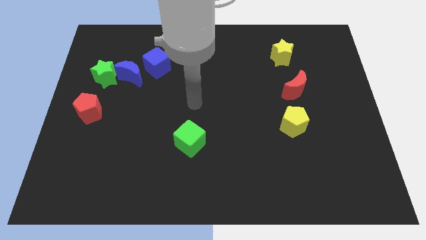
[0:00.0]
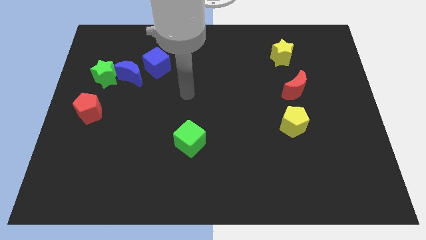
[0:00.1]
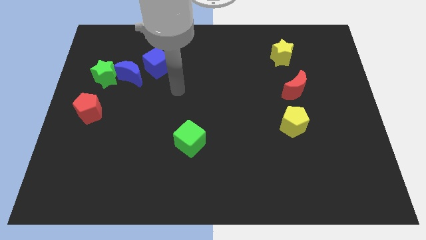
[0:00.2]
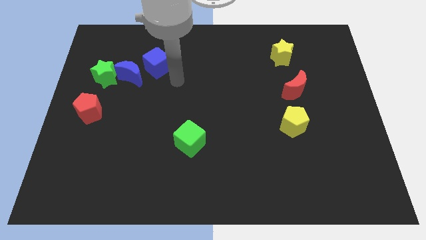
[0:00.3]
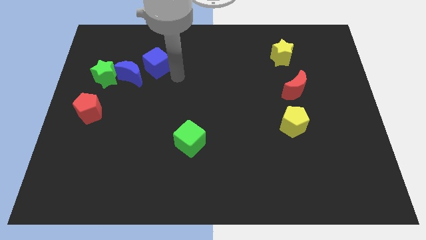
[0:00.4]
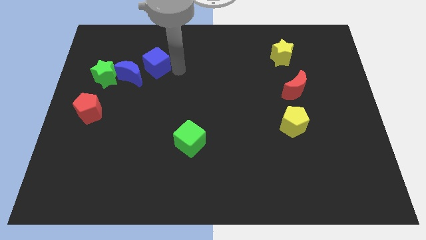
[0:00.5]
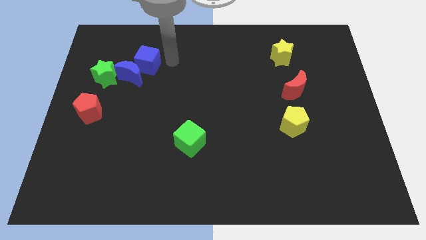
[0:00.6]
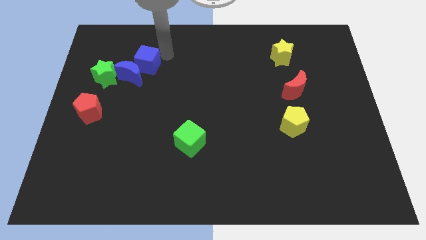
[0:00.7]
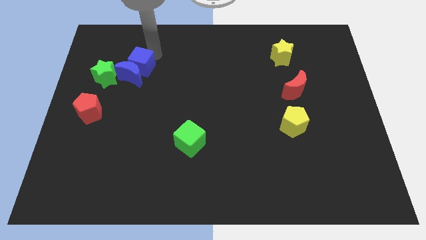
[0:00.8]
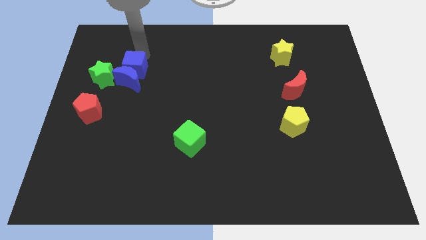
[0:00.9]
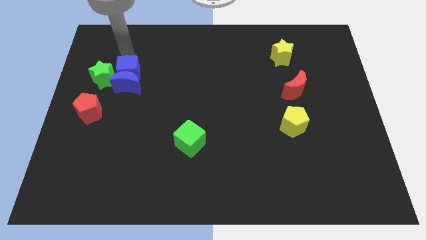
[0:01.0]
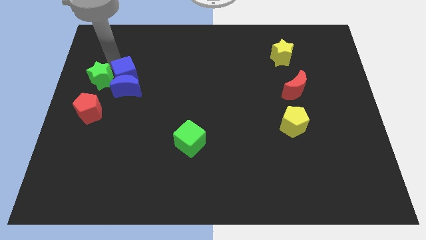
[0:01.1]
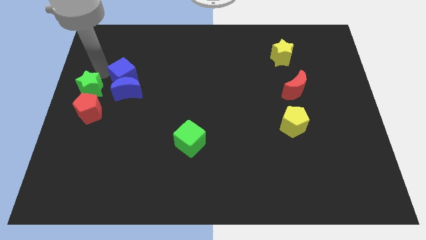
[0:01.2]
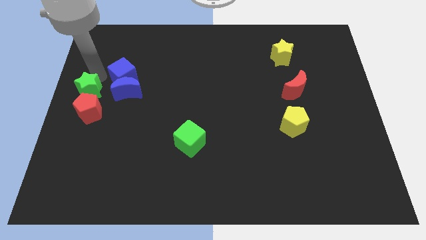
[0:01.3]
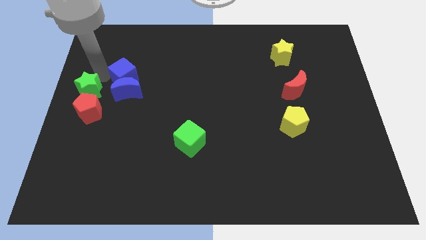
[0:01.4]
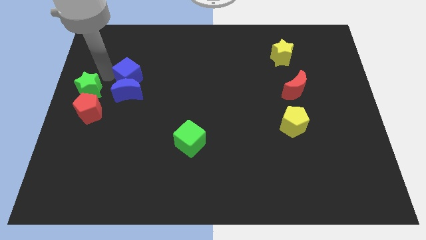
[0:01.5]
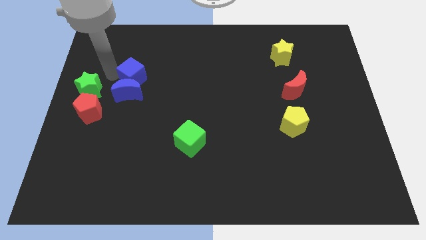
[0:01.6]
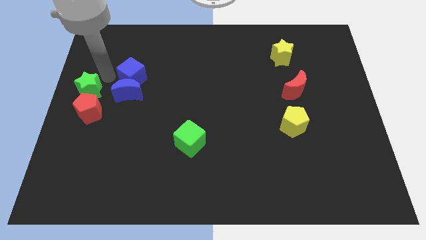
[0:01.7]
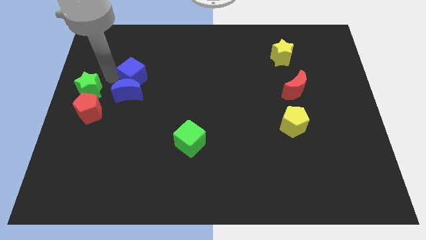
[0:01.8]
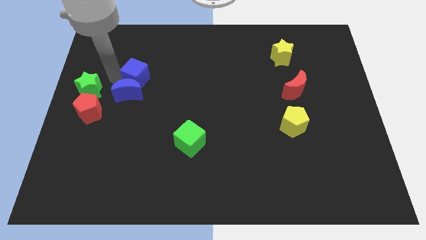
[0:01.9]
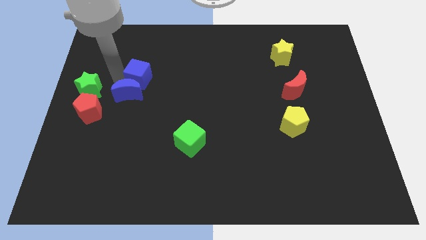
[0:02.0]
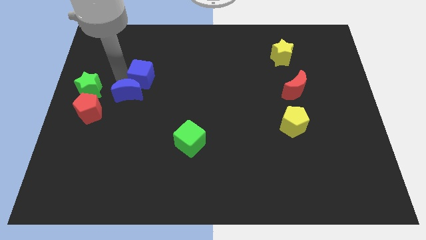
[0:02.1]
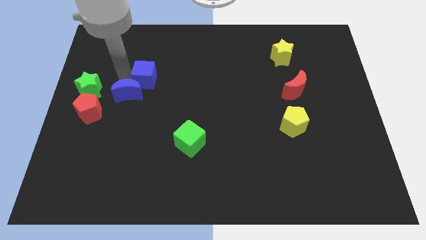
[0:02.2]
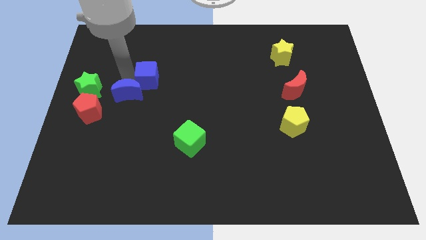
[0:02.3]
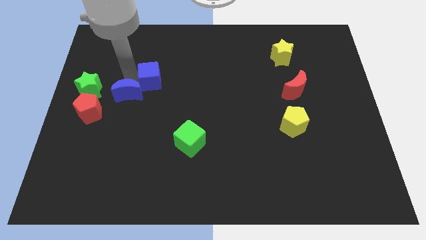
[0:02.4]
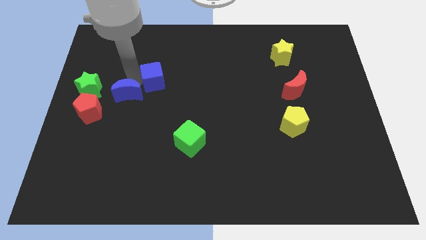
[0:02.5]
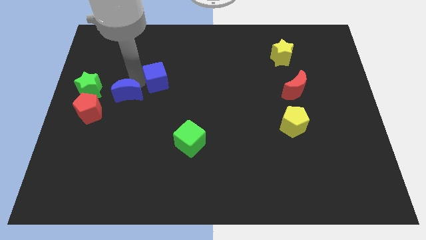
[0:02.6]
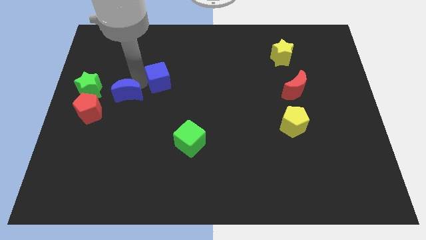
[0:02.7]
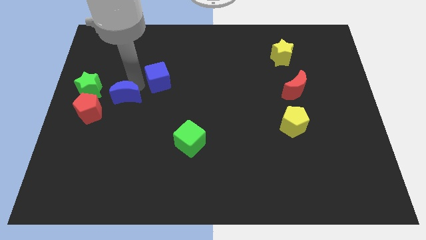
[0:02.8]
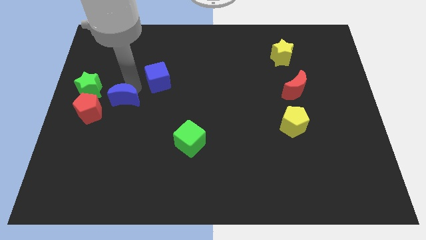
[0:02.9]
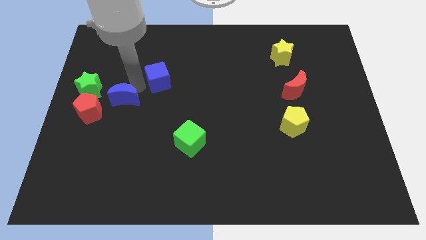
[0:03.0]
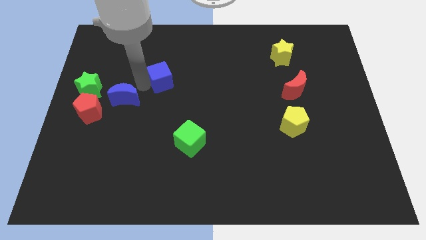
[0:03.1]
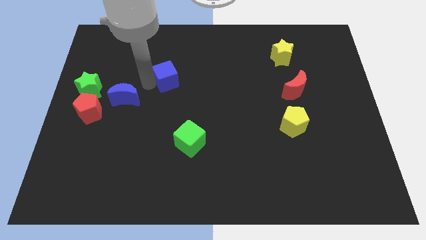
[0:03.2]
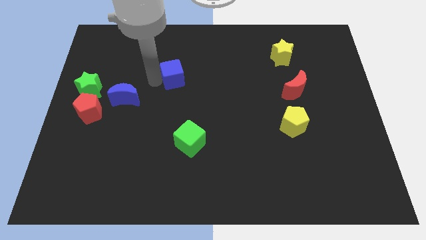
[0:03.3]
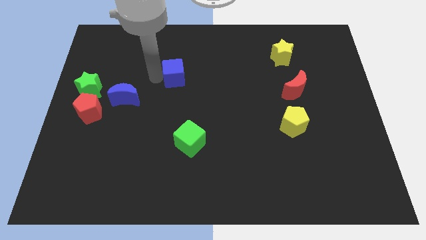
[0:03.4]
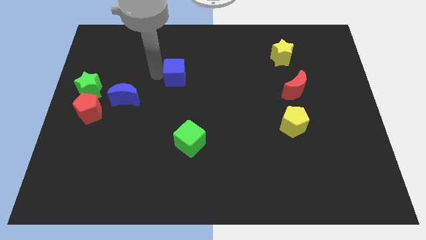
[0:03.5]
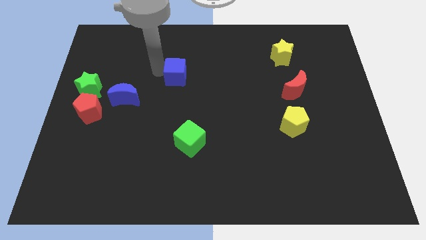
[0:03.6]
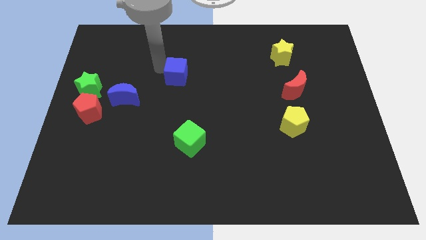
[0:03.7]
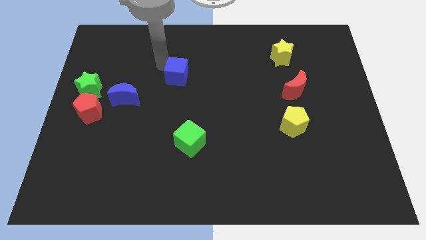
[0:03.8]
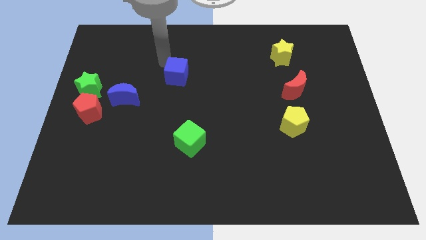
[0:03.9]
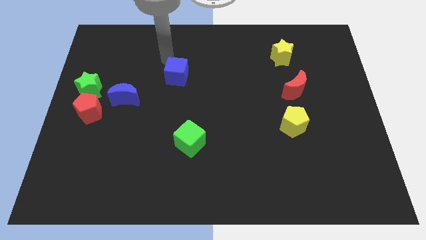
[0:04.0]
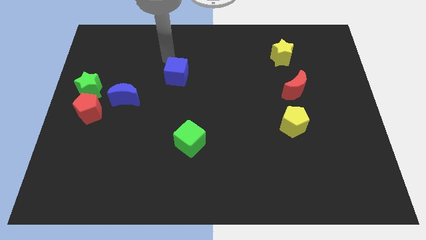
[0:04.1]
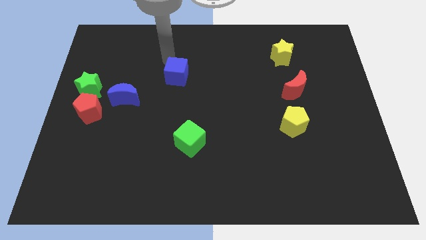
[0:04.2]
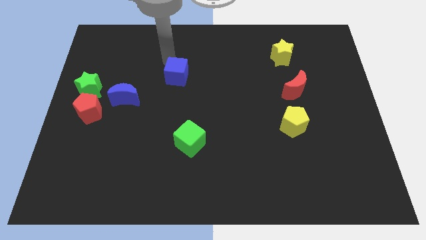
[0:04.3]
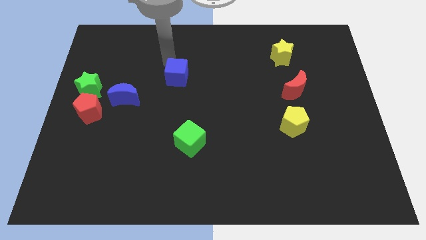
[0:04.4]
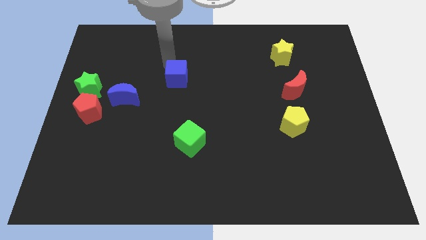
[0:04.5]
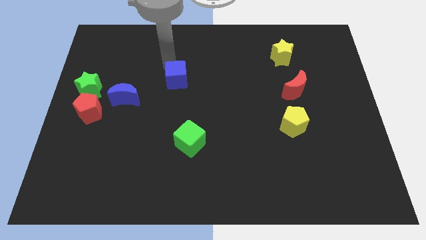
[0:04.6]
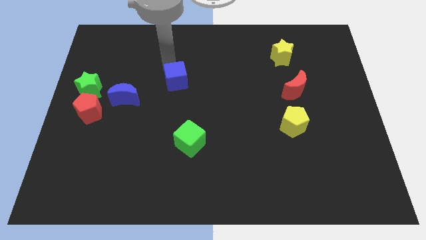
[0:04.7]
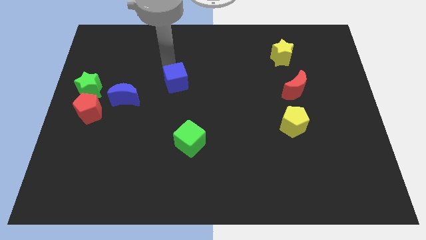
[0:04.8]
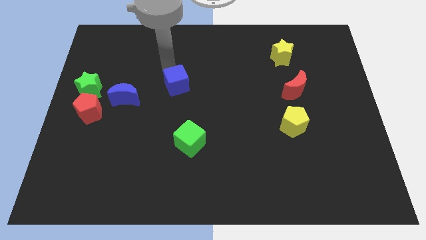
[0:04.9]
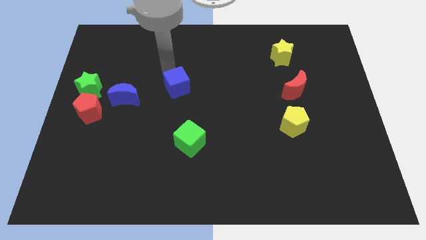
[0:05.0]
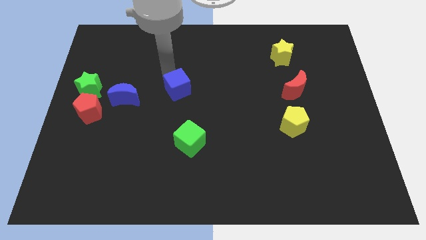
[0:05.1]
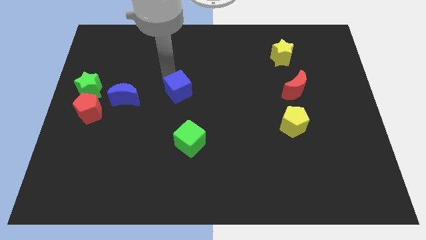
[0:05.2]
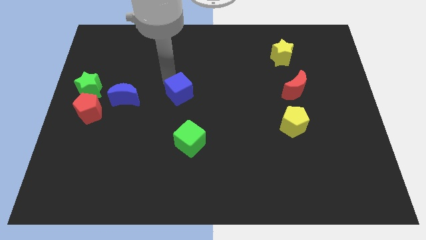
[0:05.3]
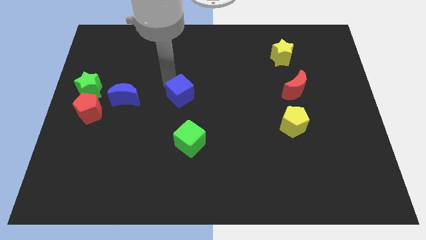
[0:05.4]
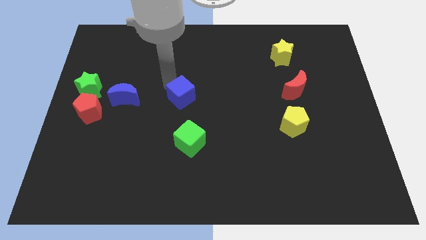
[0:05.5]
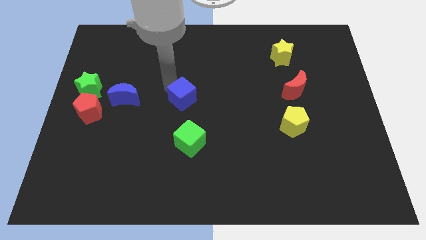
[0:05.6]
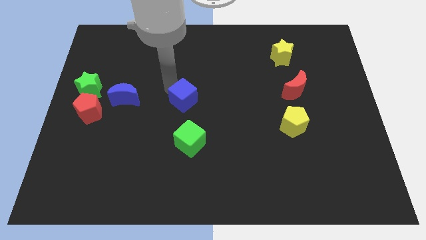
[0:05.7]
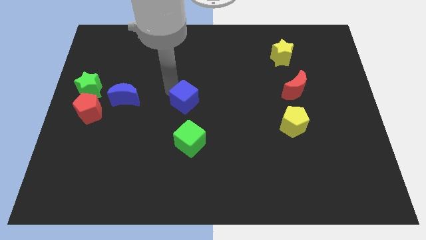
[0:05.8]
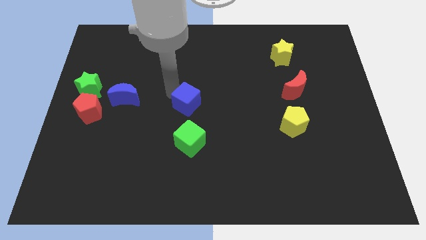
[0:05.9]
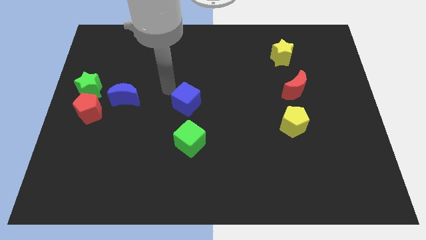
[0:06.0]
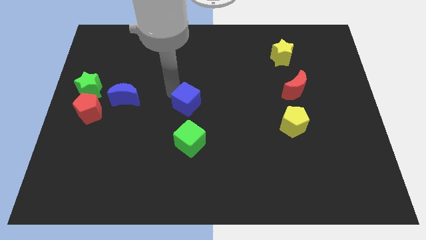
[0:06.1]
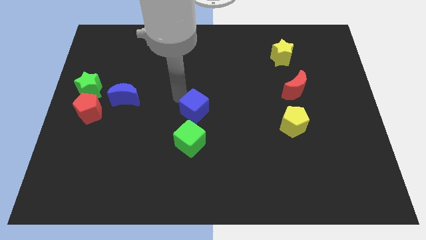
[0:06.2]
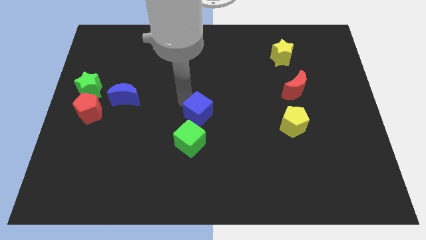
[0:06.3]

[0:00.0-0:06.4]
slide the blue cube to the top right side of the green cube

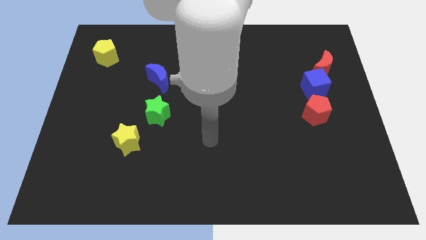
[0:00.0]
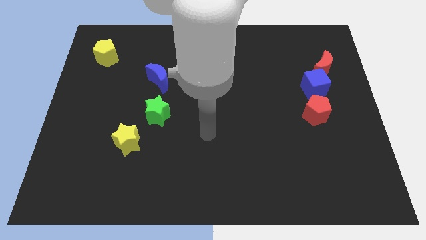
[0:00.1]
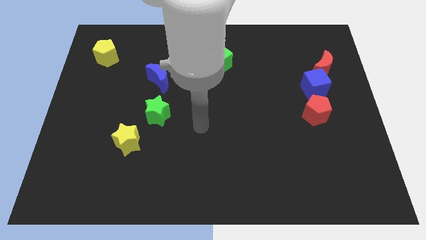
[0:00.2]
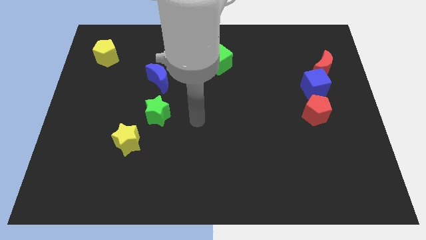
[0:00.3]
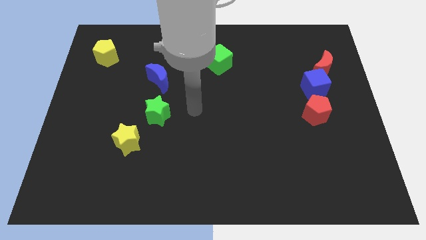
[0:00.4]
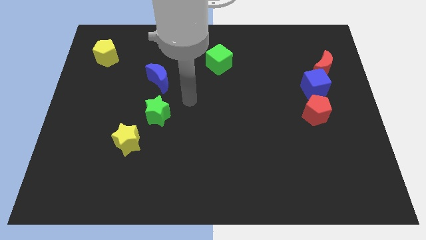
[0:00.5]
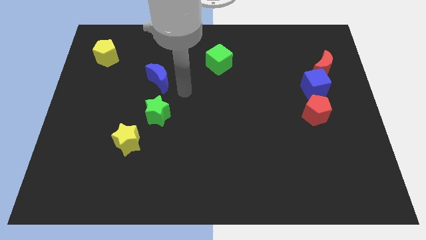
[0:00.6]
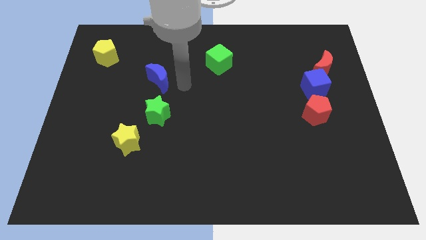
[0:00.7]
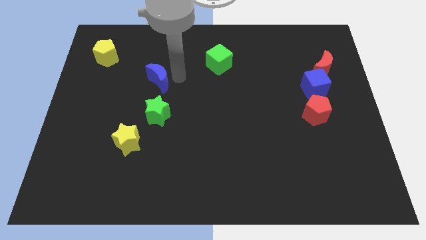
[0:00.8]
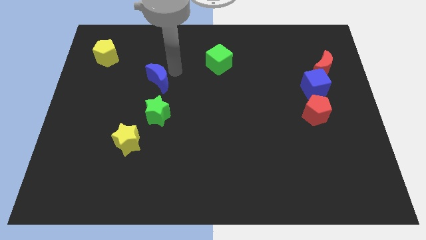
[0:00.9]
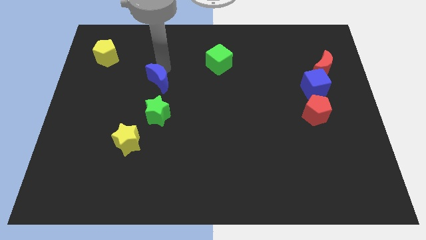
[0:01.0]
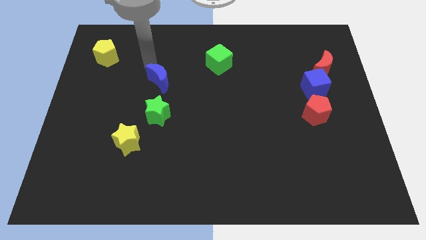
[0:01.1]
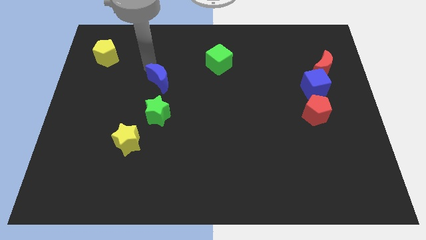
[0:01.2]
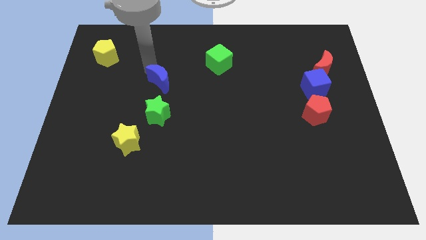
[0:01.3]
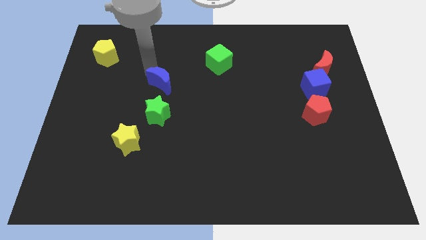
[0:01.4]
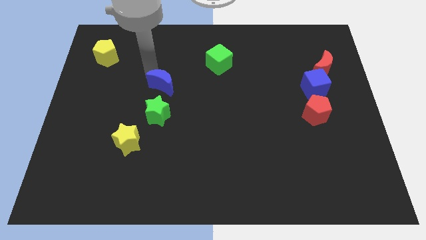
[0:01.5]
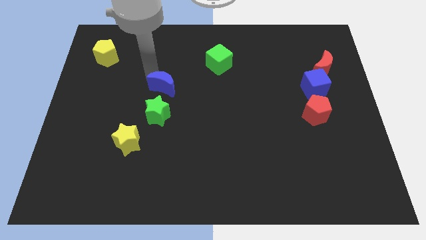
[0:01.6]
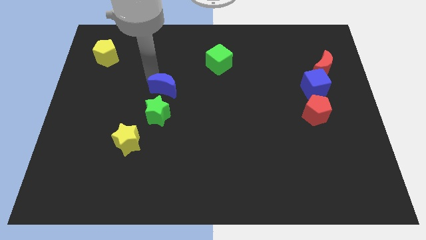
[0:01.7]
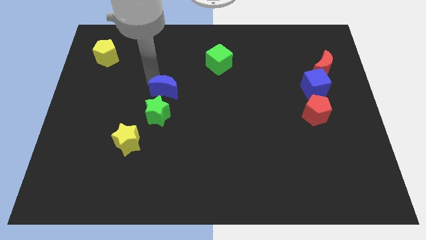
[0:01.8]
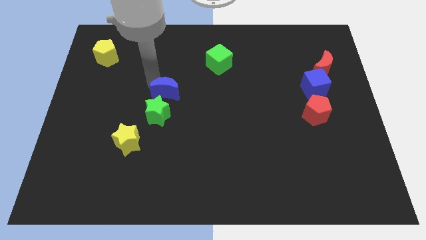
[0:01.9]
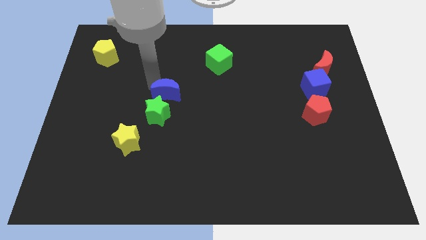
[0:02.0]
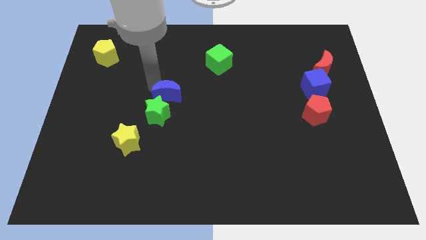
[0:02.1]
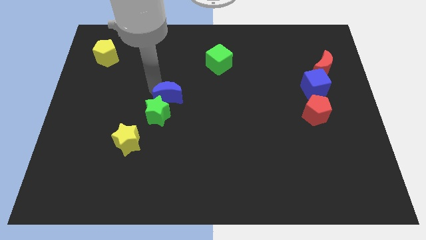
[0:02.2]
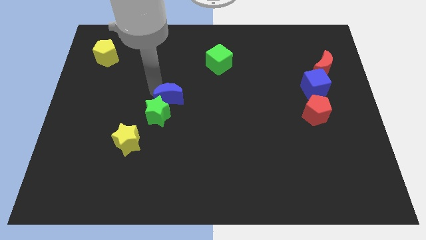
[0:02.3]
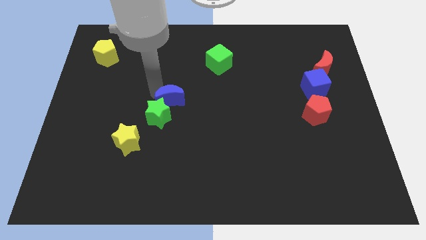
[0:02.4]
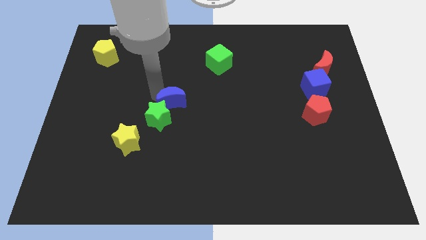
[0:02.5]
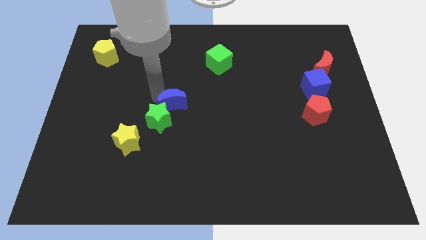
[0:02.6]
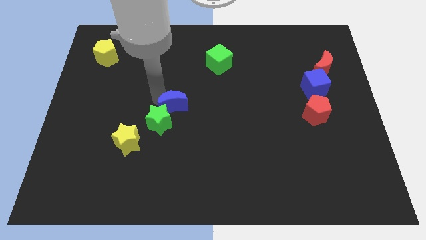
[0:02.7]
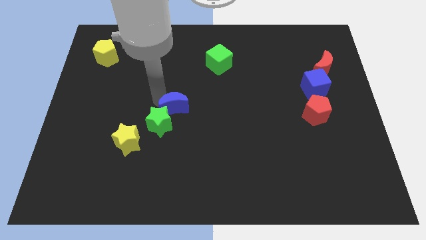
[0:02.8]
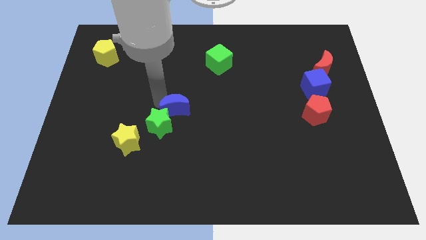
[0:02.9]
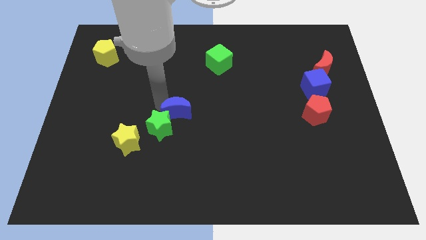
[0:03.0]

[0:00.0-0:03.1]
push the blue moon right of the green star
